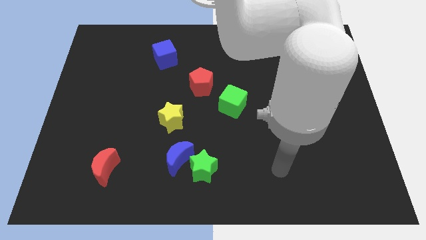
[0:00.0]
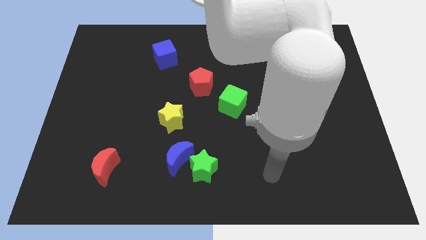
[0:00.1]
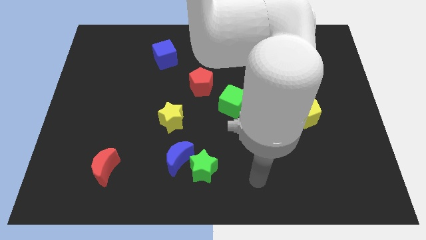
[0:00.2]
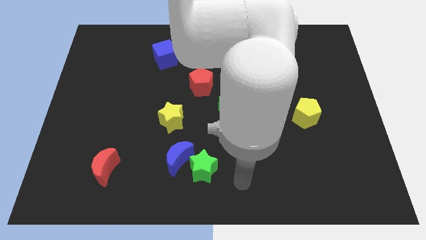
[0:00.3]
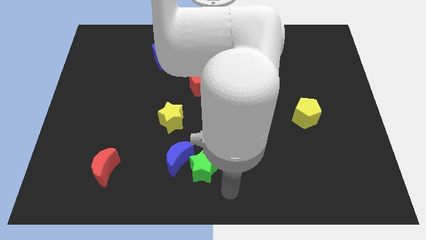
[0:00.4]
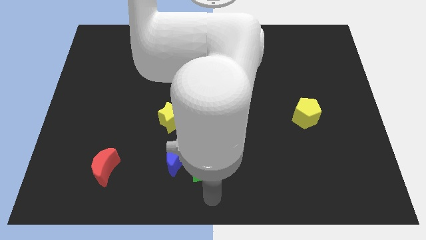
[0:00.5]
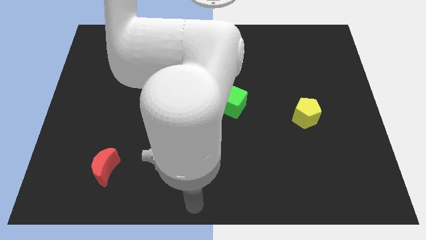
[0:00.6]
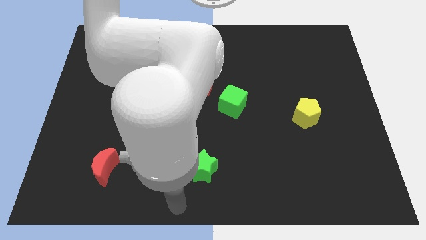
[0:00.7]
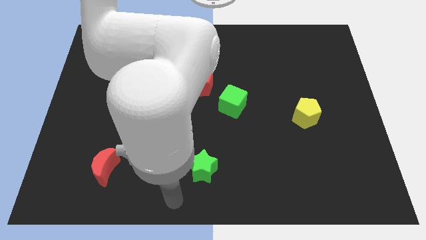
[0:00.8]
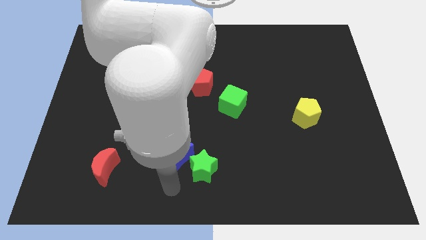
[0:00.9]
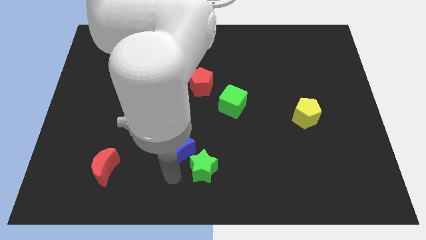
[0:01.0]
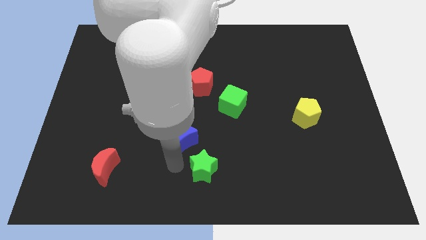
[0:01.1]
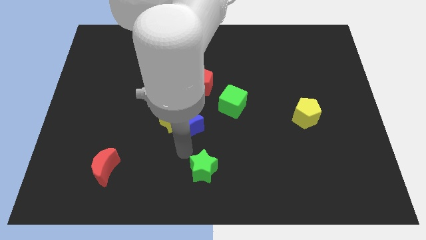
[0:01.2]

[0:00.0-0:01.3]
move the green star away from the blue moon

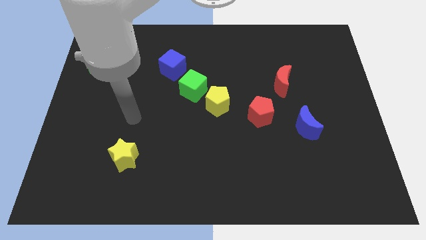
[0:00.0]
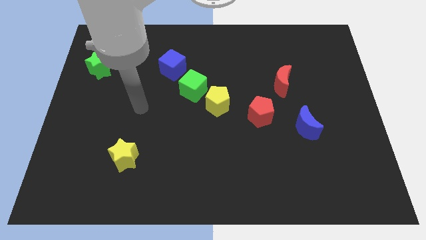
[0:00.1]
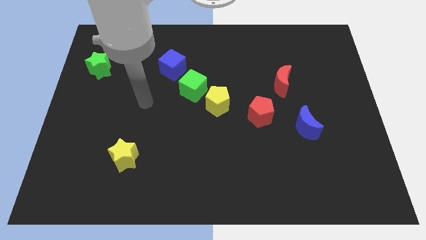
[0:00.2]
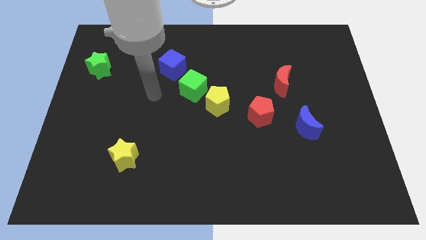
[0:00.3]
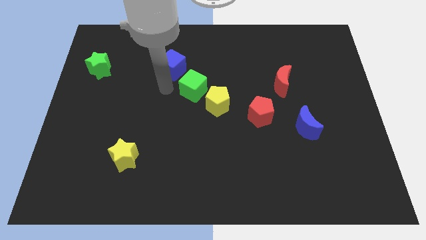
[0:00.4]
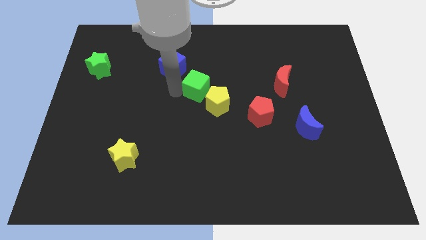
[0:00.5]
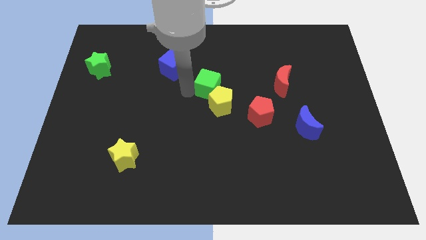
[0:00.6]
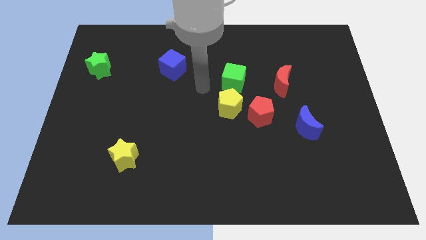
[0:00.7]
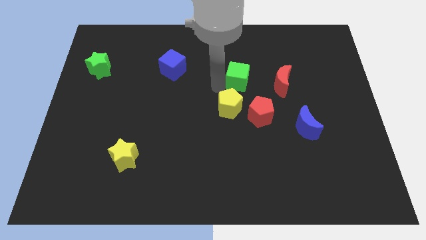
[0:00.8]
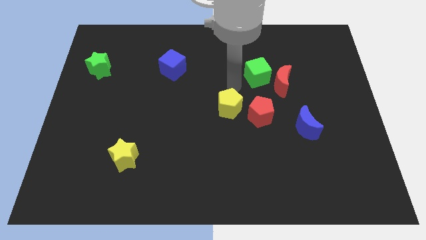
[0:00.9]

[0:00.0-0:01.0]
pull the yellow pentagon apart from the green cube

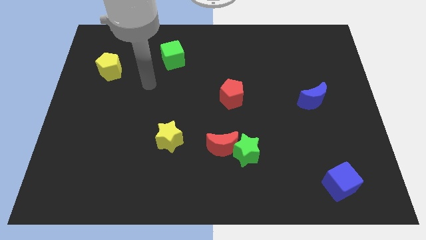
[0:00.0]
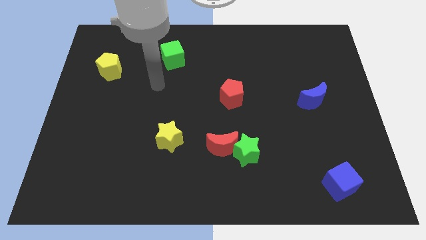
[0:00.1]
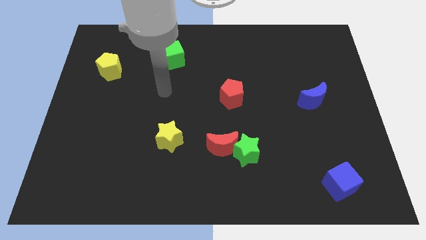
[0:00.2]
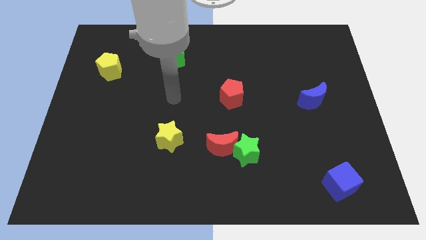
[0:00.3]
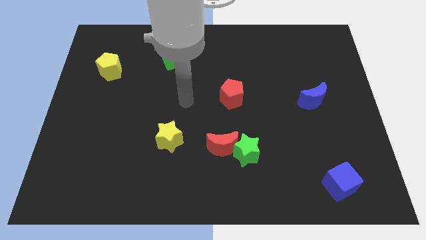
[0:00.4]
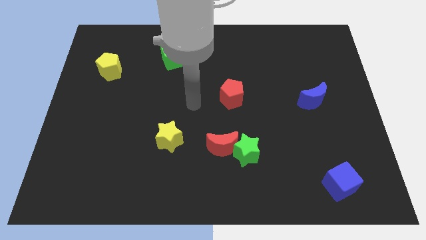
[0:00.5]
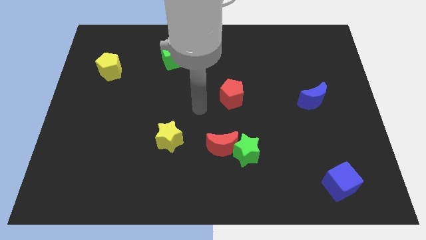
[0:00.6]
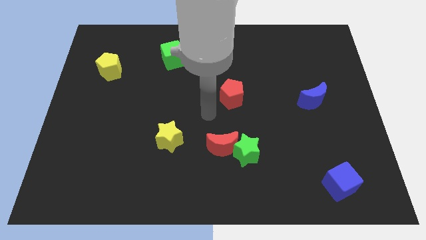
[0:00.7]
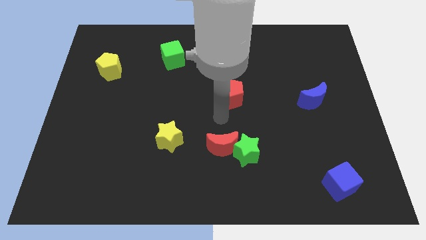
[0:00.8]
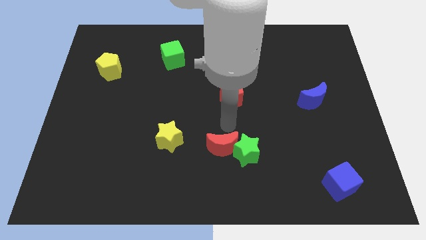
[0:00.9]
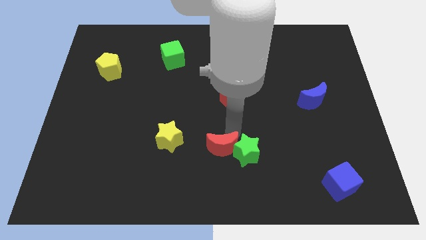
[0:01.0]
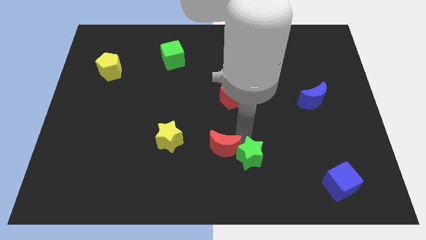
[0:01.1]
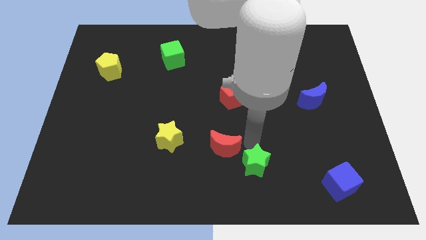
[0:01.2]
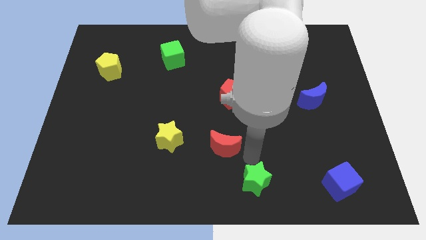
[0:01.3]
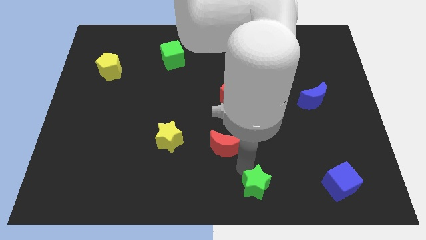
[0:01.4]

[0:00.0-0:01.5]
pull the red moon apart from the green star

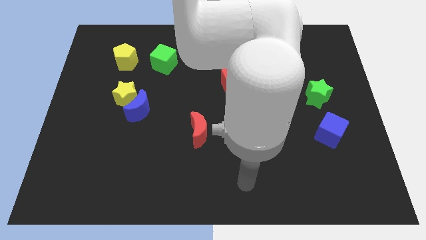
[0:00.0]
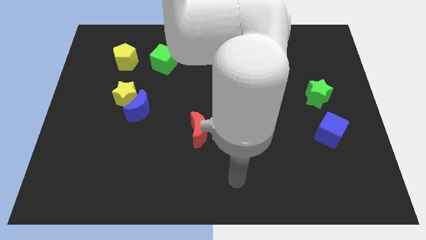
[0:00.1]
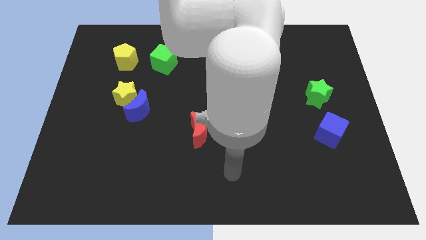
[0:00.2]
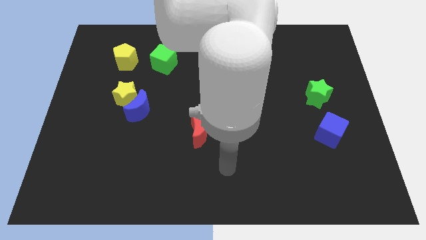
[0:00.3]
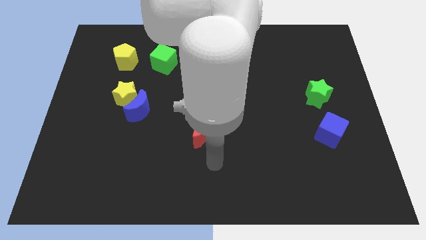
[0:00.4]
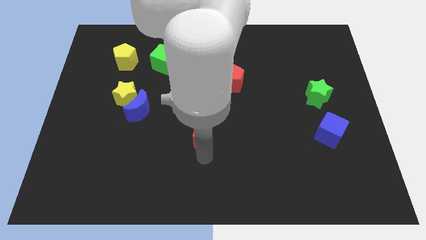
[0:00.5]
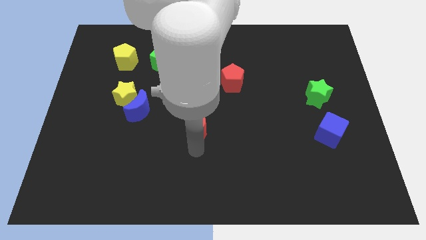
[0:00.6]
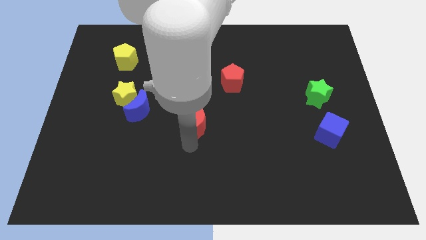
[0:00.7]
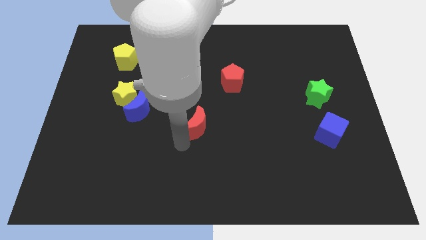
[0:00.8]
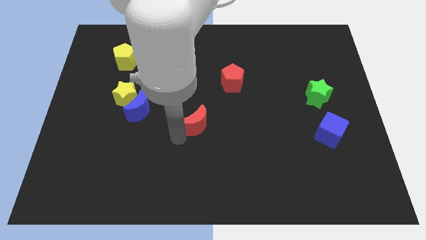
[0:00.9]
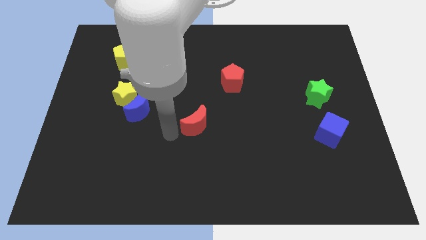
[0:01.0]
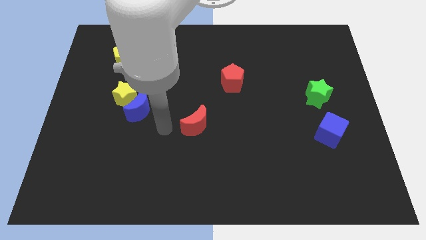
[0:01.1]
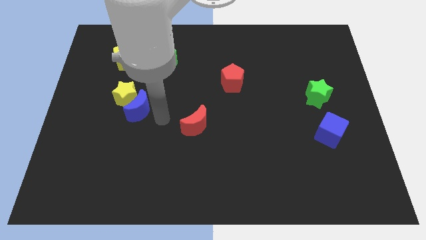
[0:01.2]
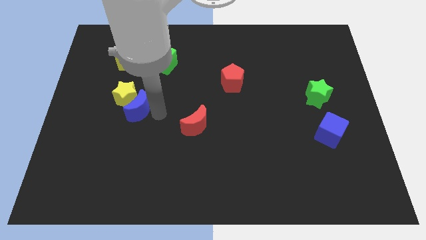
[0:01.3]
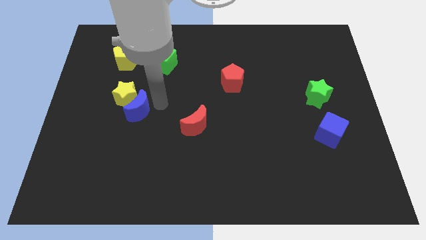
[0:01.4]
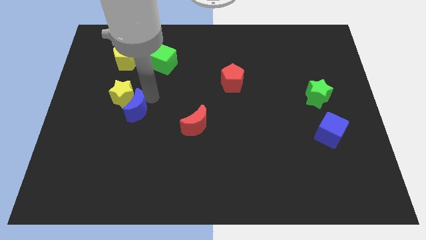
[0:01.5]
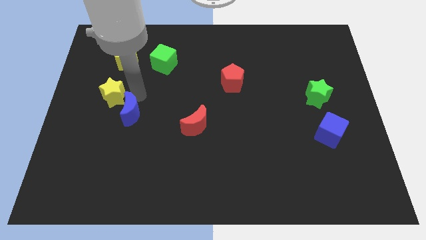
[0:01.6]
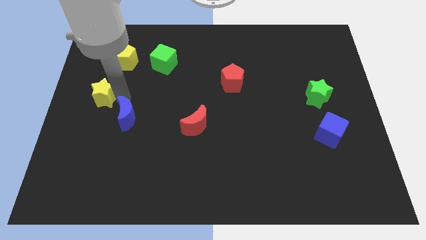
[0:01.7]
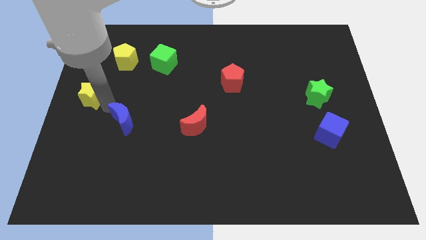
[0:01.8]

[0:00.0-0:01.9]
move the blue moon away from the yellow star

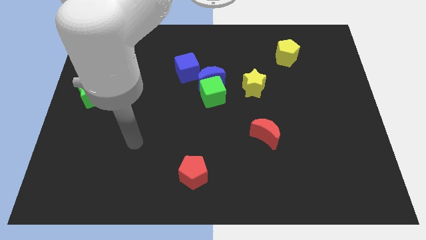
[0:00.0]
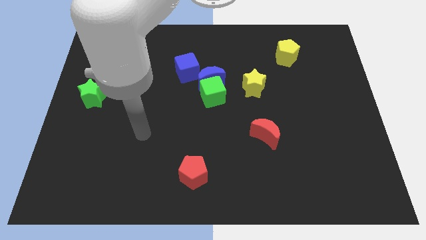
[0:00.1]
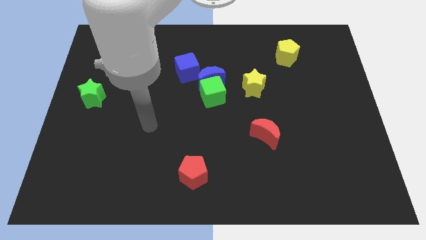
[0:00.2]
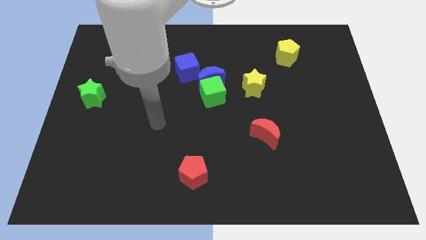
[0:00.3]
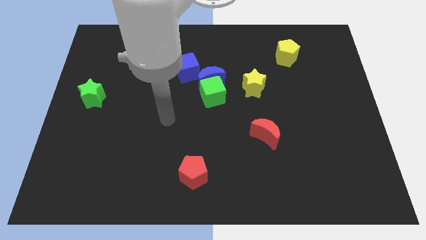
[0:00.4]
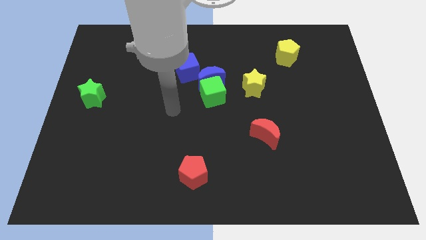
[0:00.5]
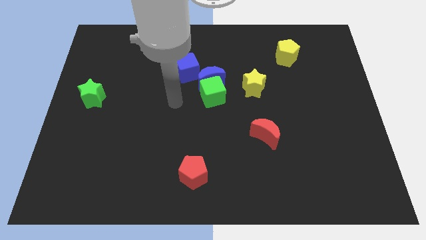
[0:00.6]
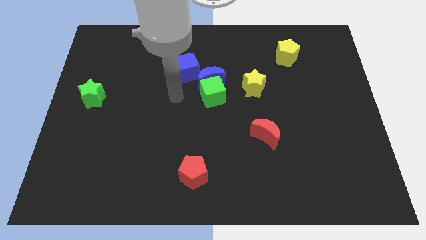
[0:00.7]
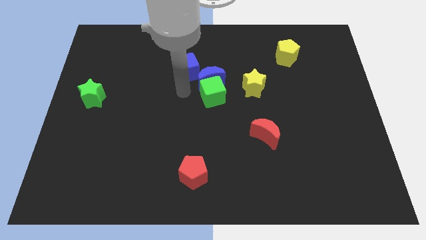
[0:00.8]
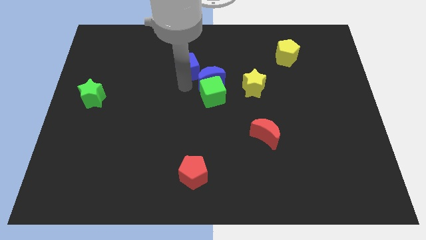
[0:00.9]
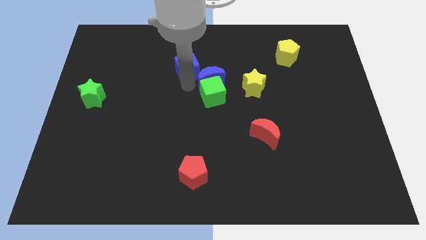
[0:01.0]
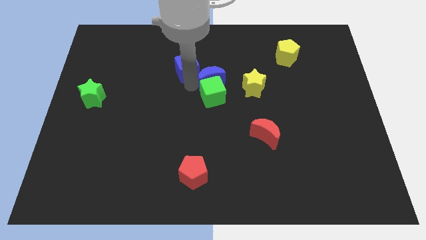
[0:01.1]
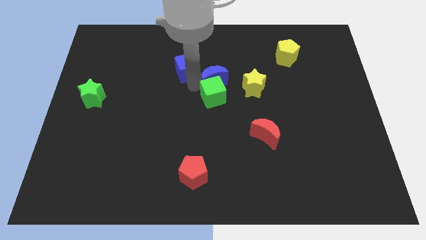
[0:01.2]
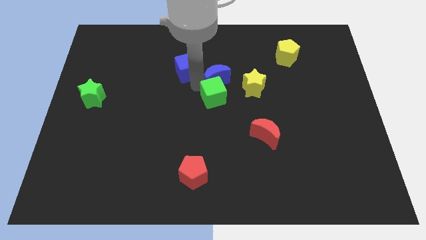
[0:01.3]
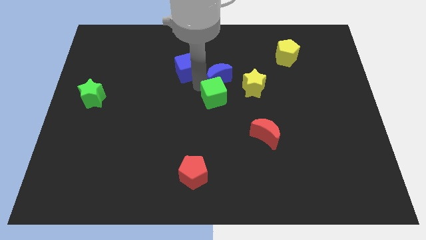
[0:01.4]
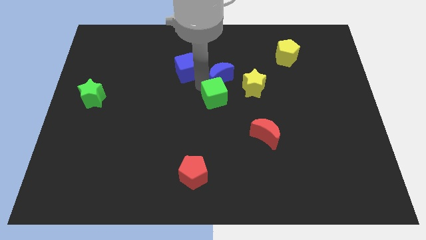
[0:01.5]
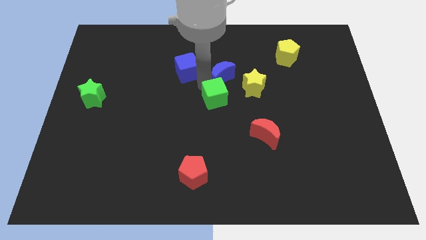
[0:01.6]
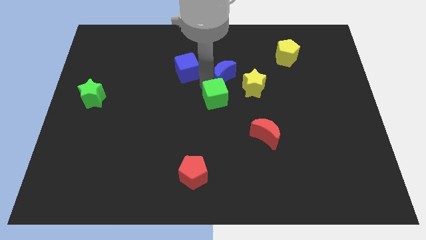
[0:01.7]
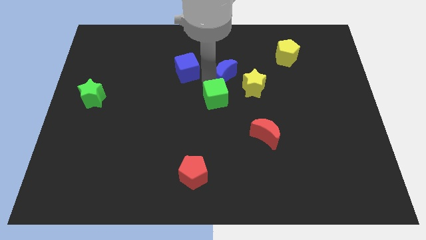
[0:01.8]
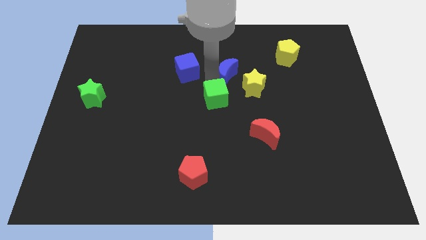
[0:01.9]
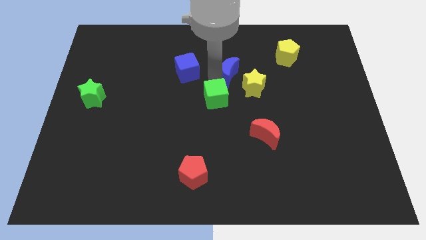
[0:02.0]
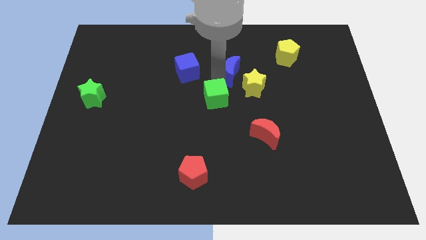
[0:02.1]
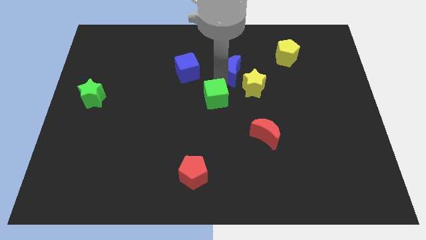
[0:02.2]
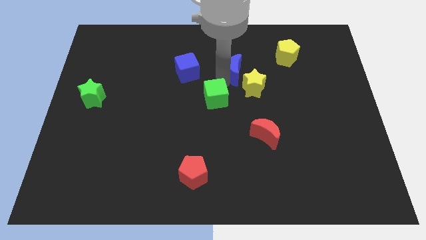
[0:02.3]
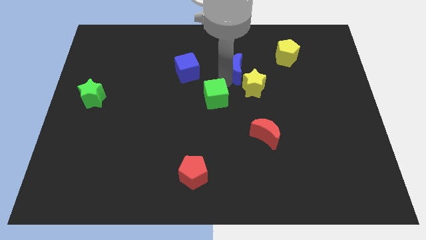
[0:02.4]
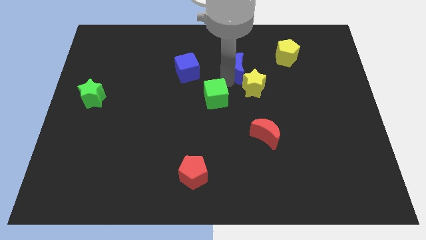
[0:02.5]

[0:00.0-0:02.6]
move the blue moon away from the green cube and blue cube

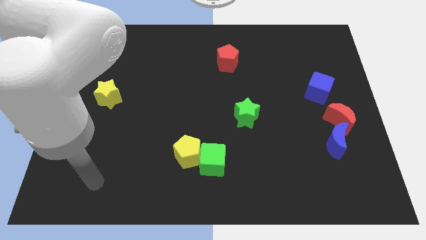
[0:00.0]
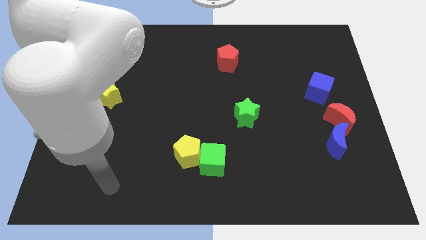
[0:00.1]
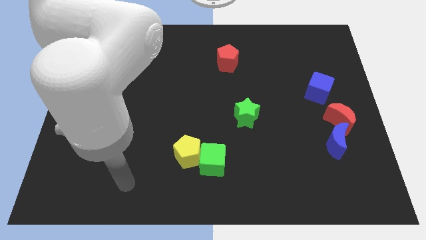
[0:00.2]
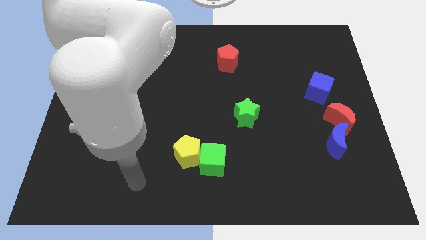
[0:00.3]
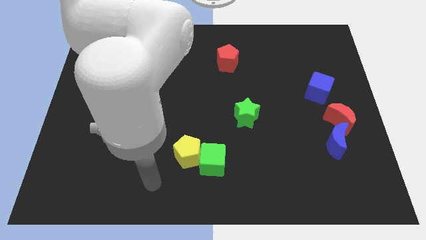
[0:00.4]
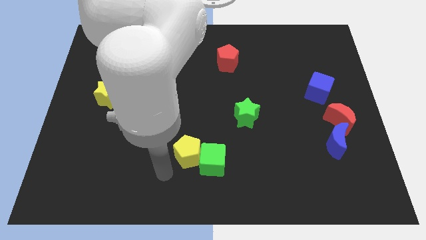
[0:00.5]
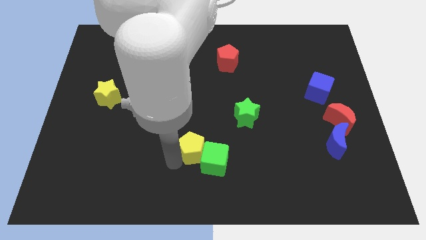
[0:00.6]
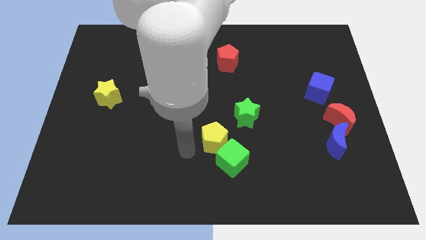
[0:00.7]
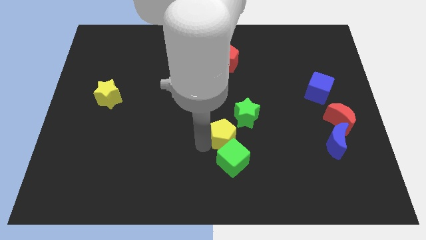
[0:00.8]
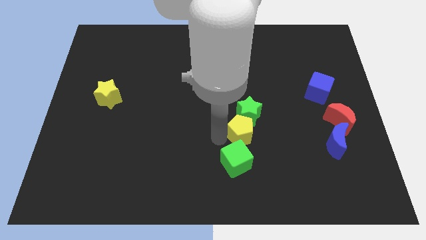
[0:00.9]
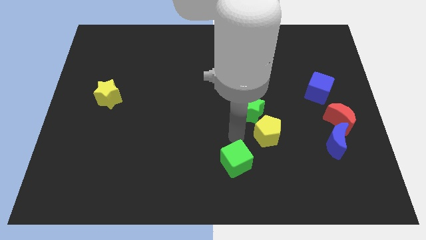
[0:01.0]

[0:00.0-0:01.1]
separate the green cube from the yellow pentagon
